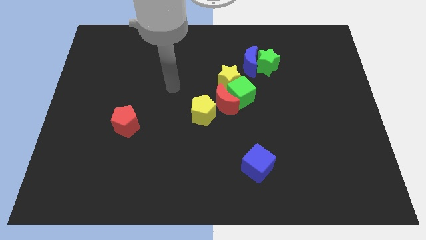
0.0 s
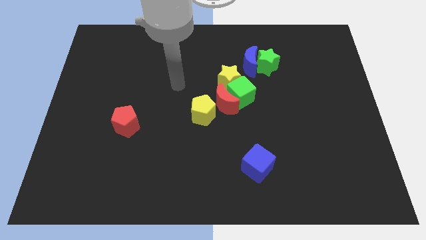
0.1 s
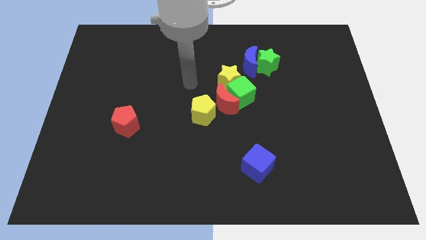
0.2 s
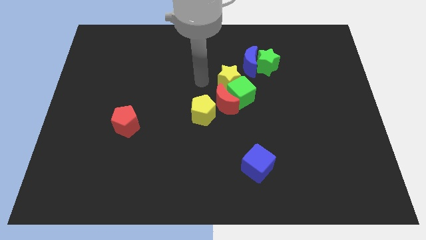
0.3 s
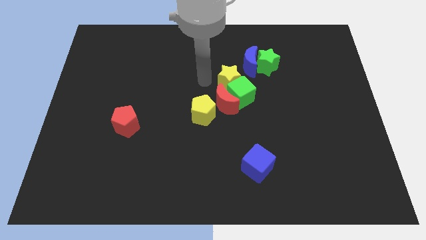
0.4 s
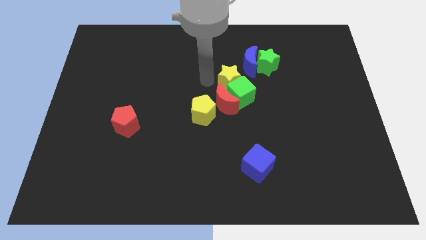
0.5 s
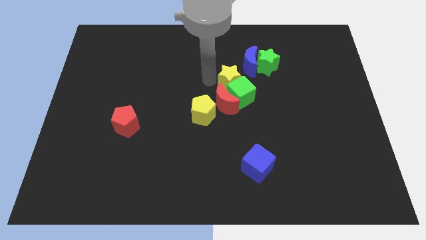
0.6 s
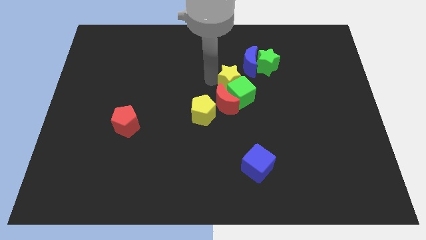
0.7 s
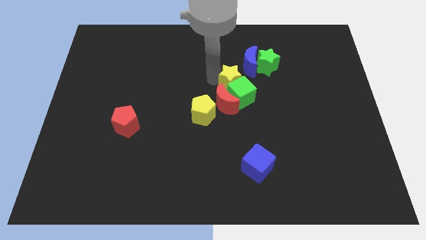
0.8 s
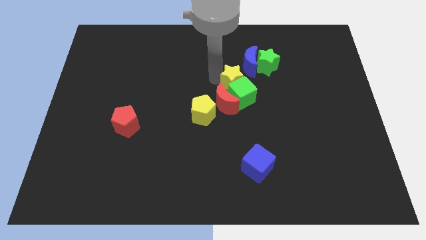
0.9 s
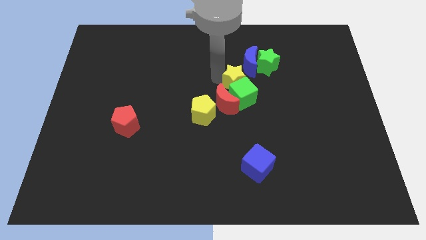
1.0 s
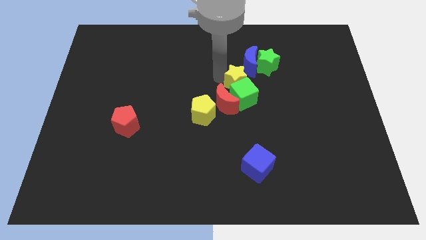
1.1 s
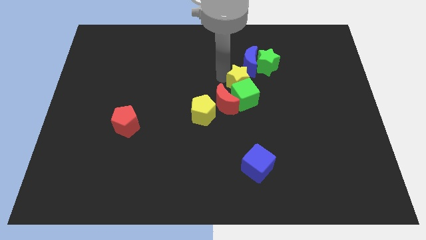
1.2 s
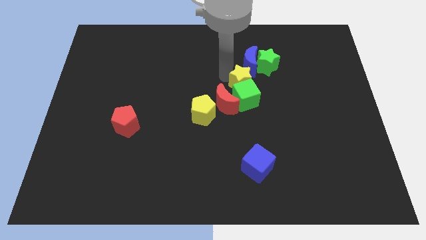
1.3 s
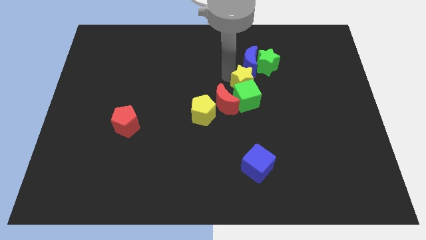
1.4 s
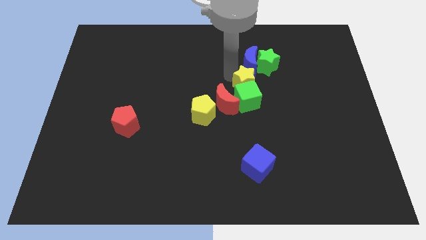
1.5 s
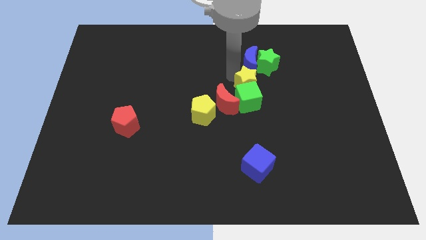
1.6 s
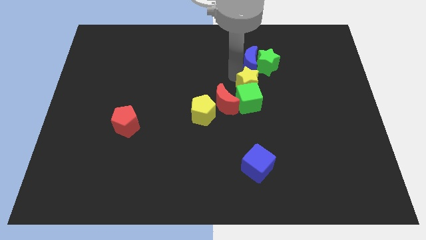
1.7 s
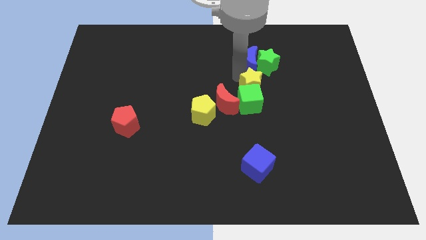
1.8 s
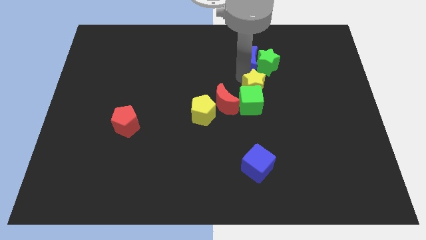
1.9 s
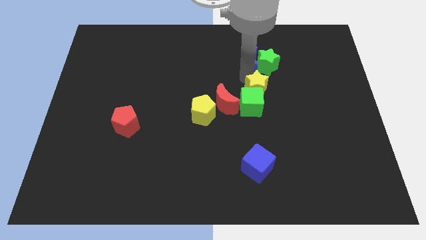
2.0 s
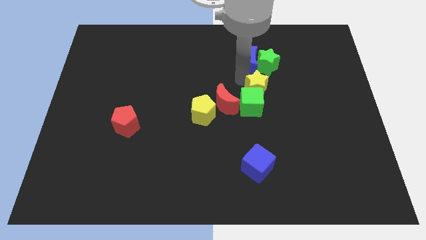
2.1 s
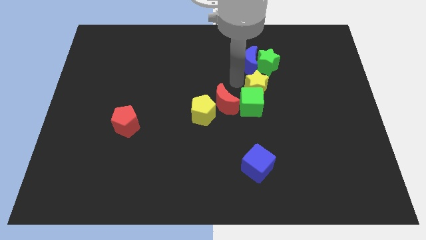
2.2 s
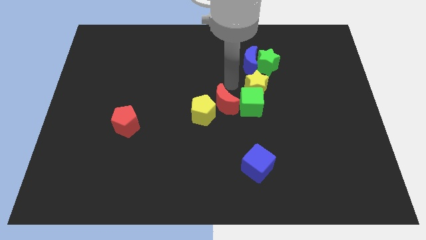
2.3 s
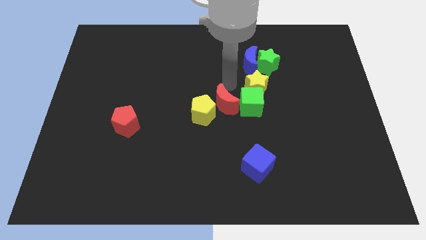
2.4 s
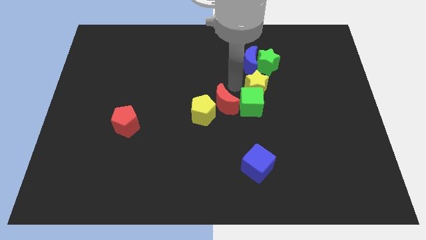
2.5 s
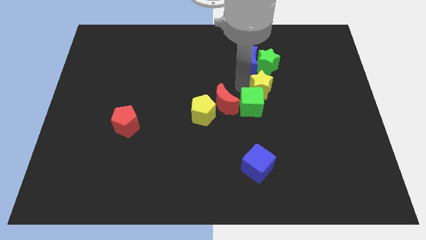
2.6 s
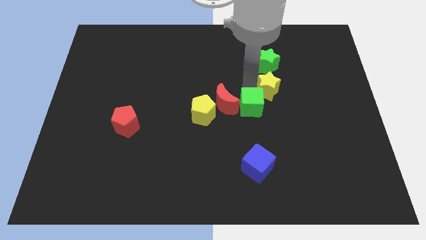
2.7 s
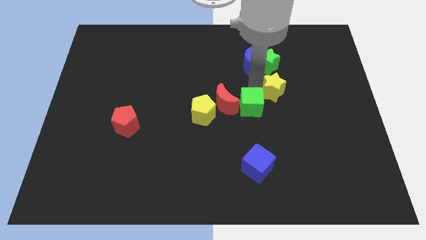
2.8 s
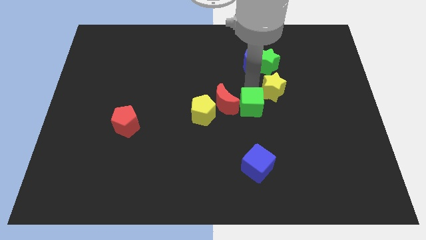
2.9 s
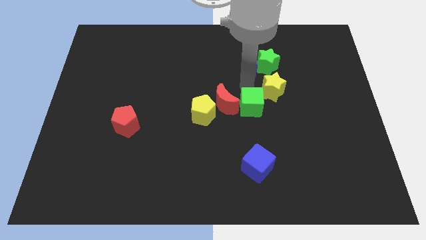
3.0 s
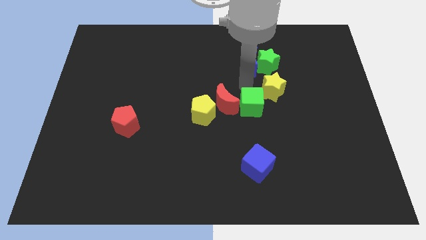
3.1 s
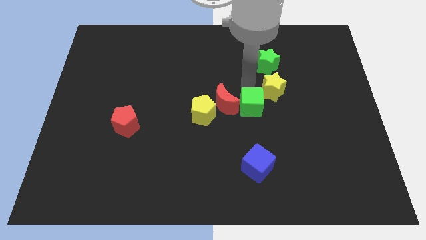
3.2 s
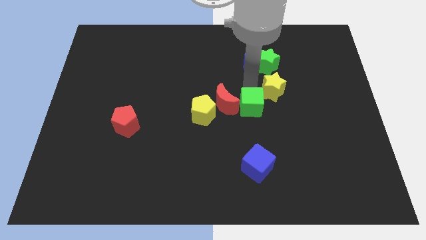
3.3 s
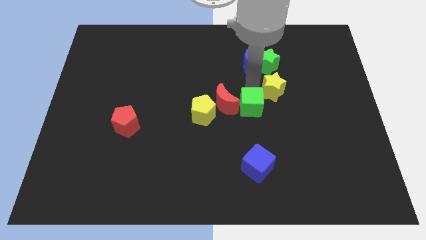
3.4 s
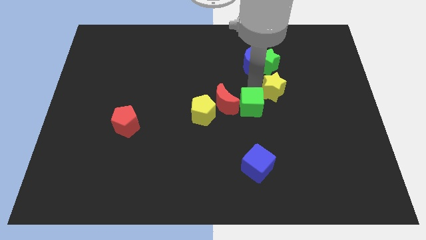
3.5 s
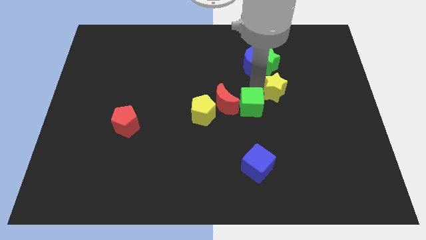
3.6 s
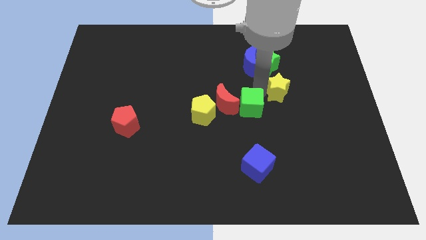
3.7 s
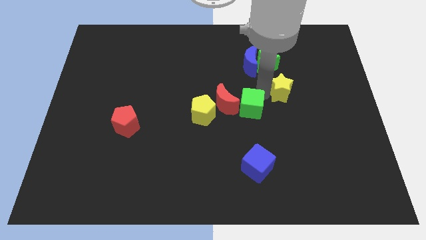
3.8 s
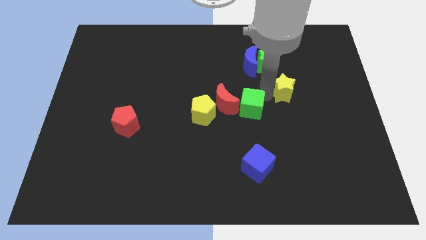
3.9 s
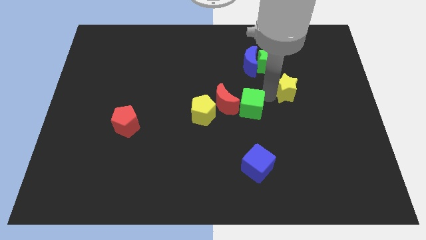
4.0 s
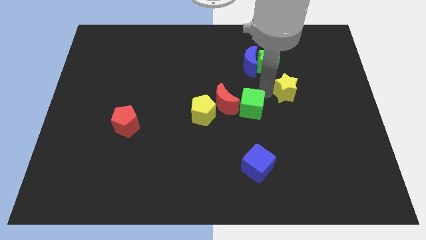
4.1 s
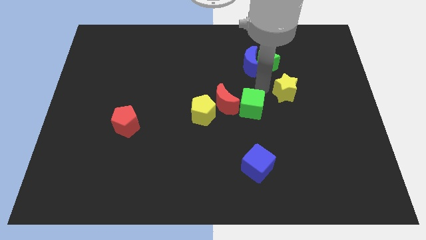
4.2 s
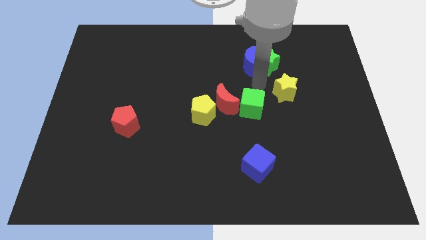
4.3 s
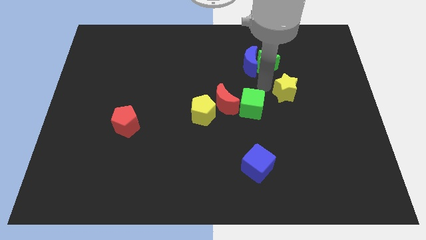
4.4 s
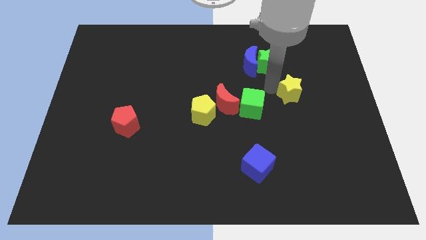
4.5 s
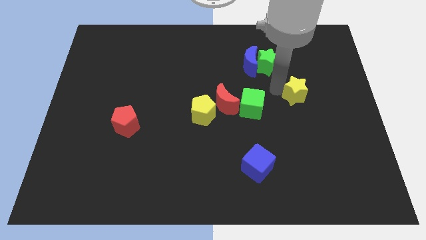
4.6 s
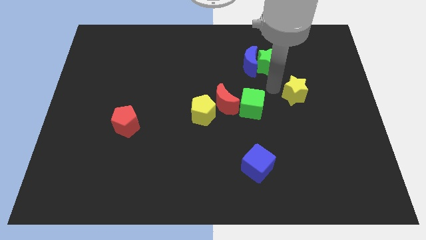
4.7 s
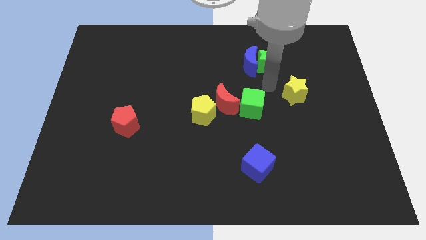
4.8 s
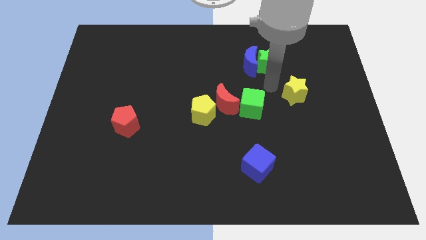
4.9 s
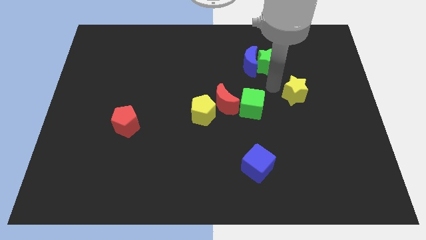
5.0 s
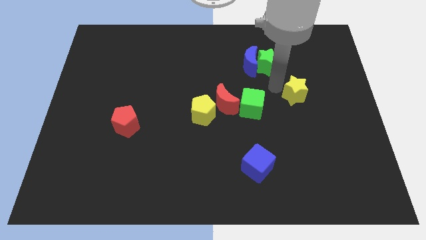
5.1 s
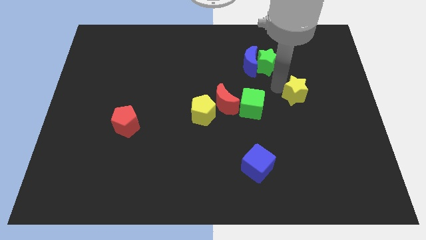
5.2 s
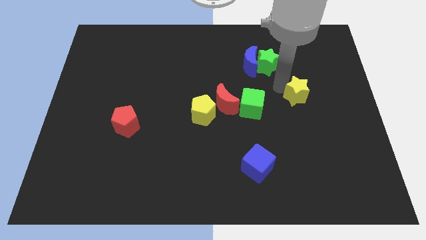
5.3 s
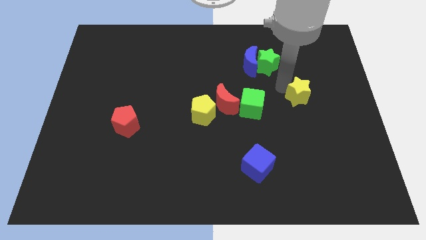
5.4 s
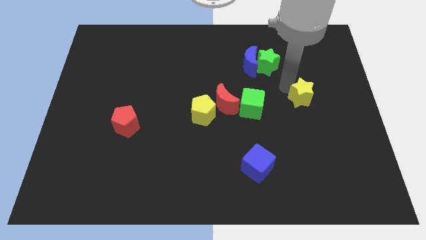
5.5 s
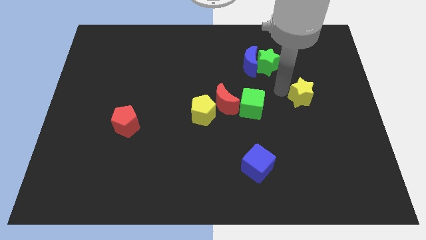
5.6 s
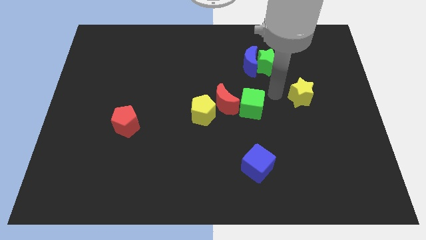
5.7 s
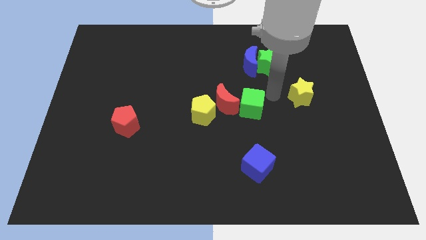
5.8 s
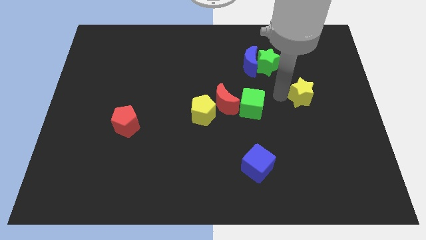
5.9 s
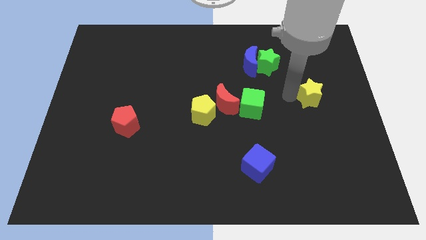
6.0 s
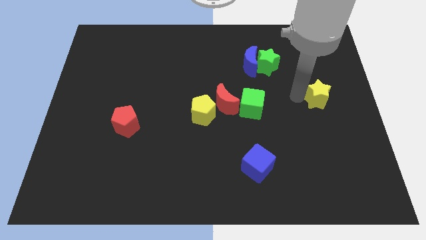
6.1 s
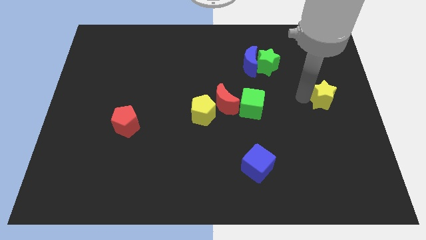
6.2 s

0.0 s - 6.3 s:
push the yellow star to the center right
